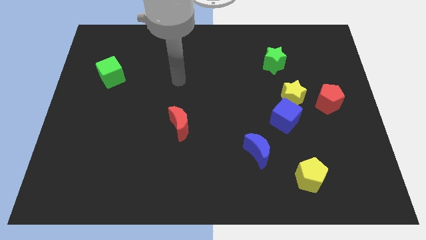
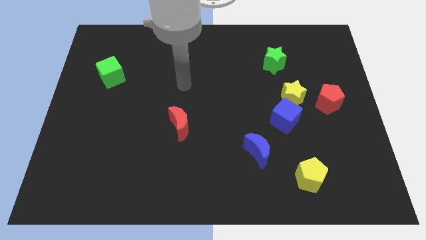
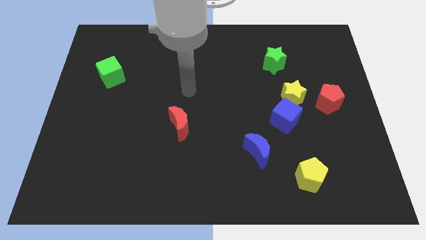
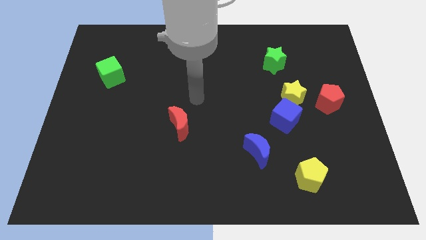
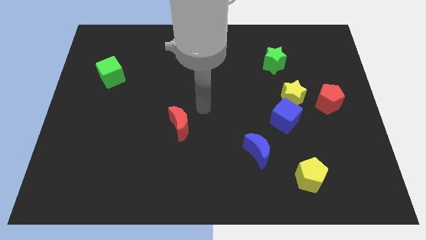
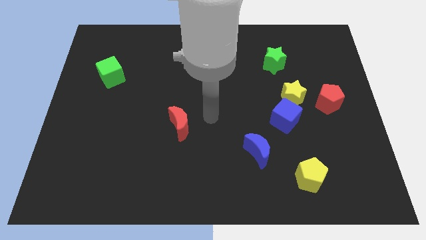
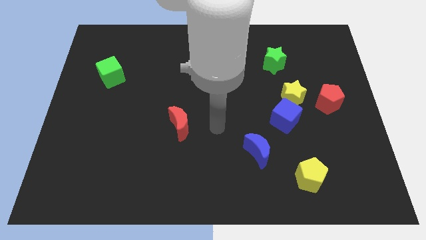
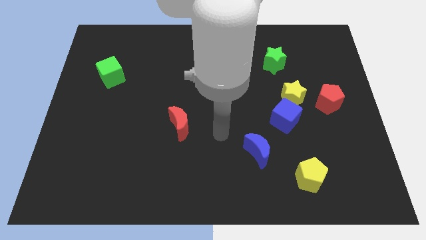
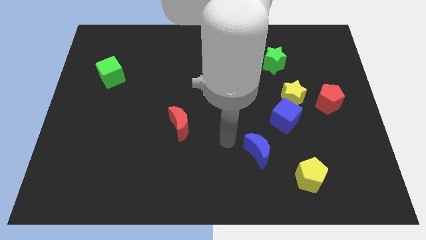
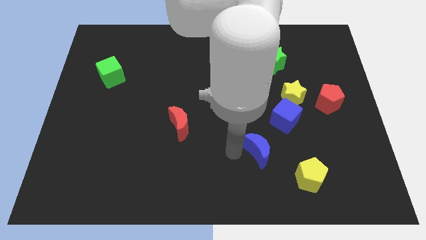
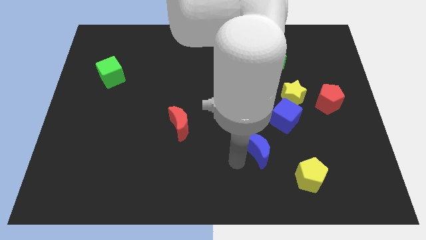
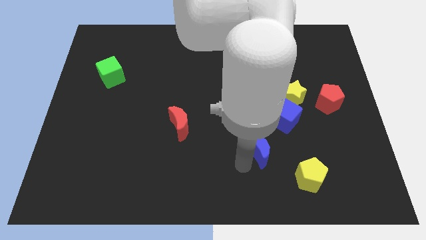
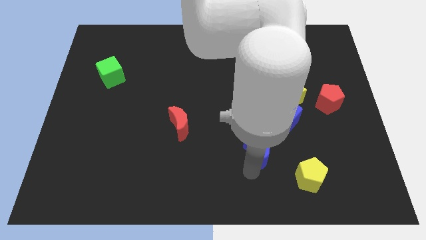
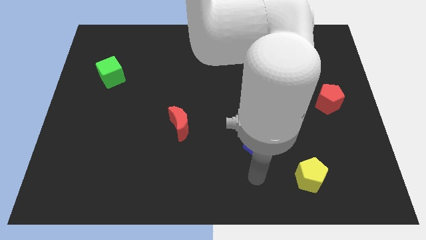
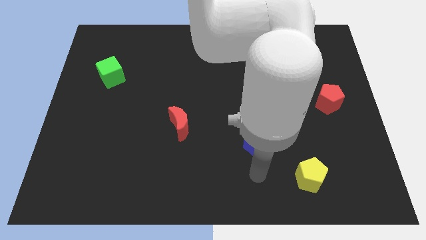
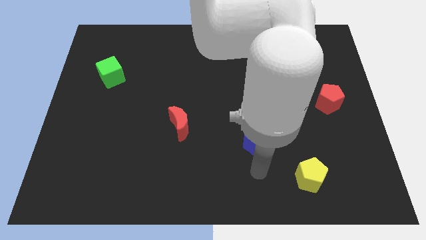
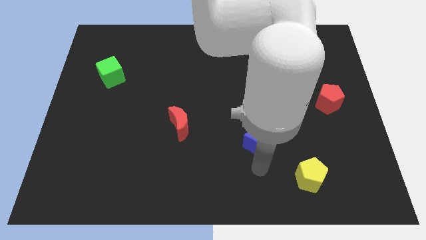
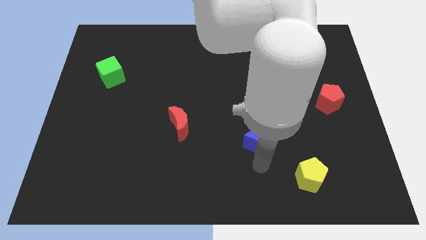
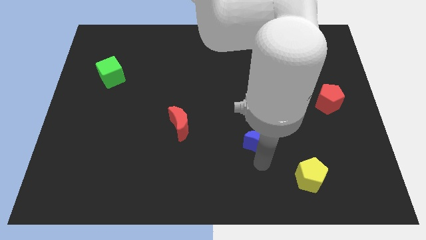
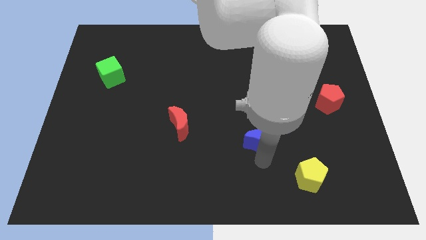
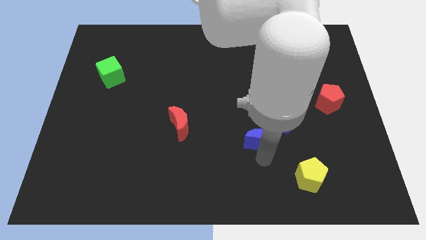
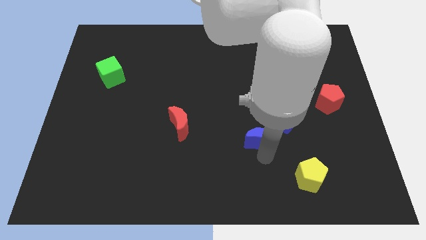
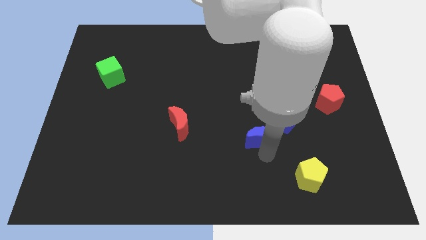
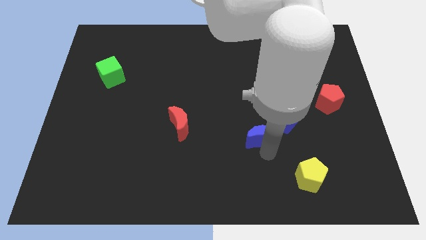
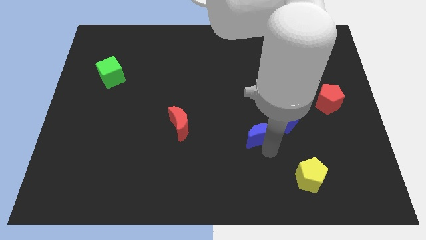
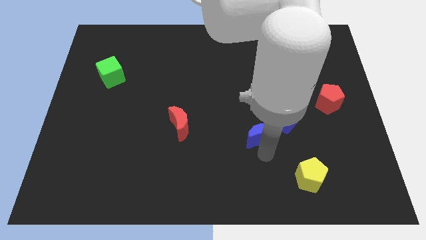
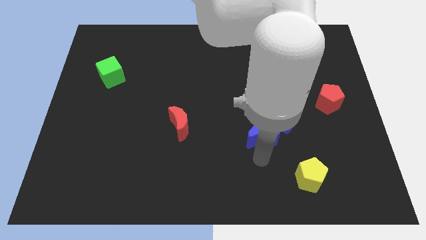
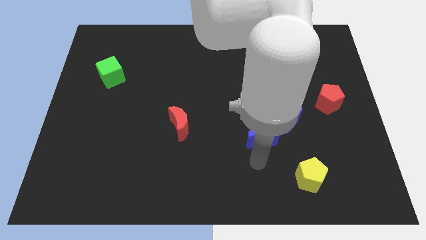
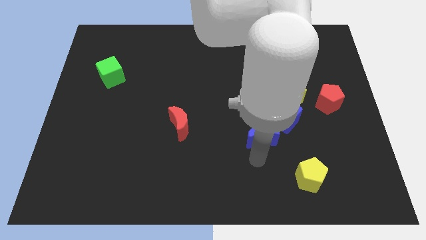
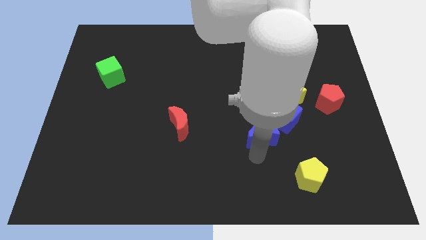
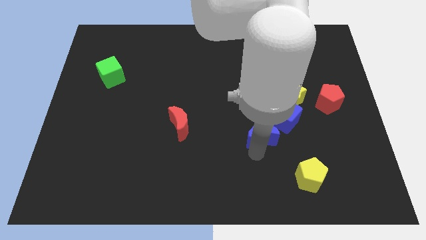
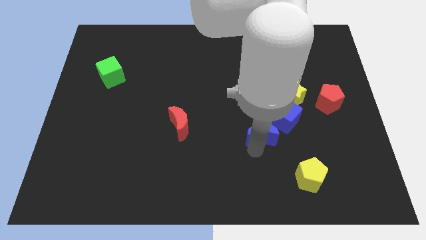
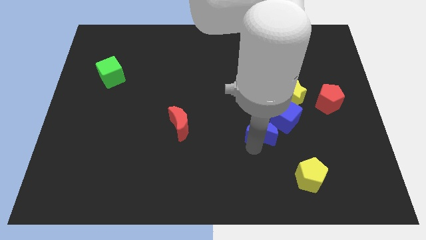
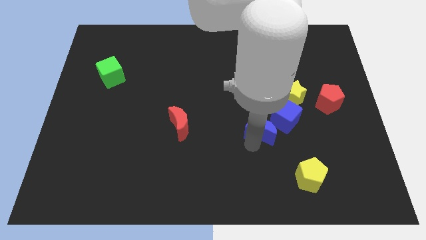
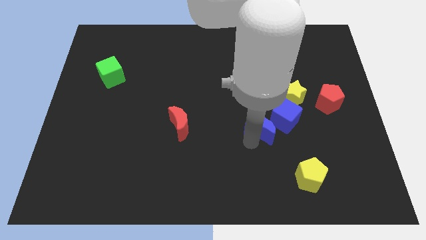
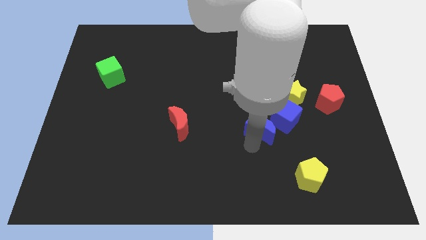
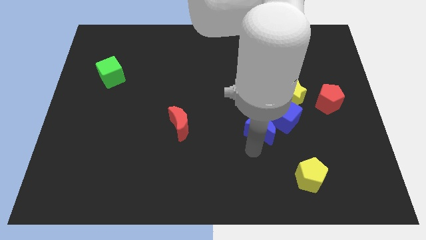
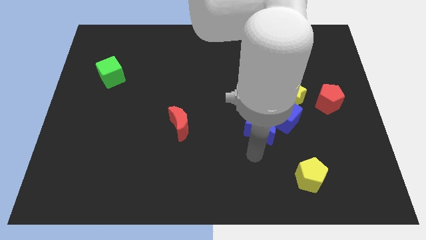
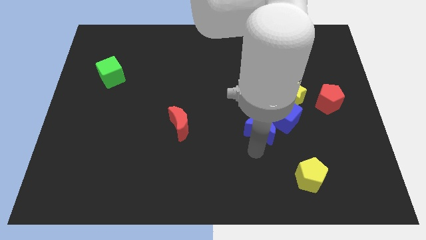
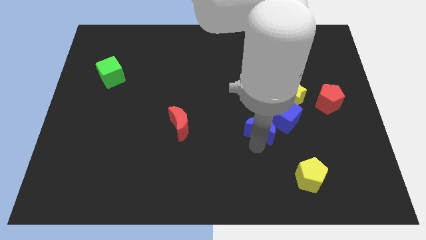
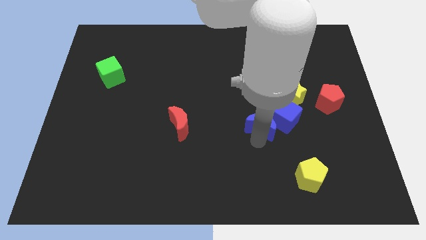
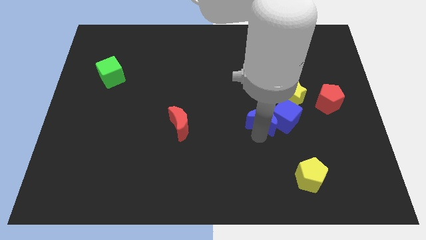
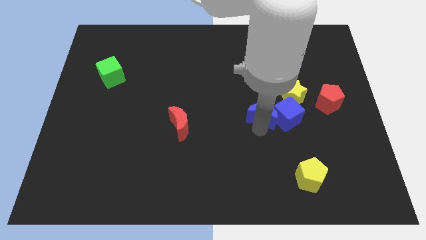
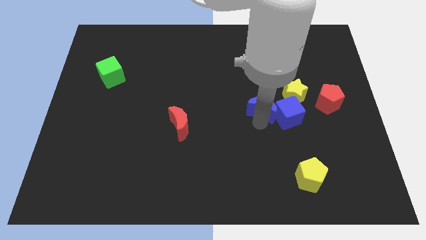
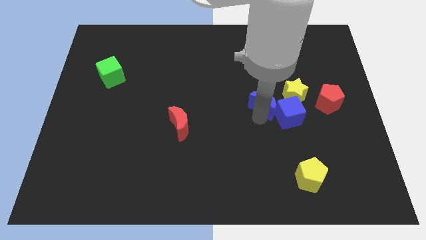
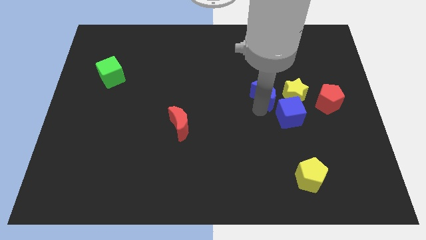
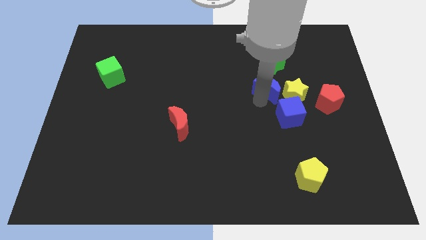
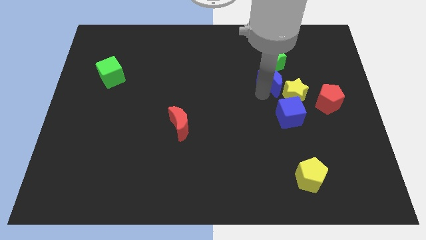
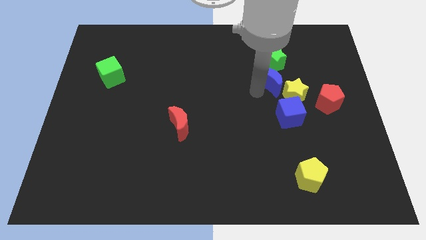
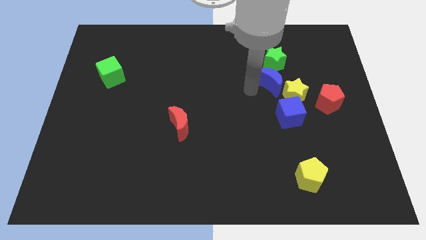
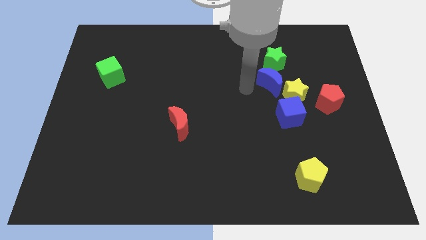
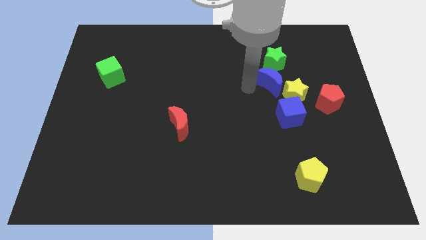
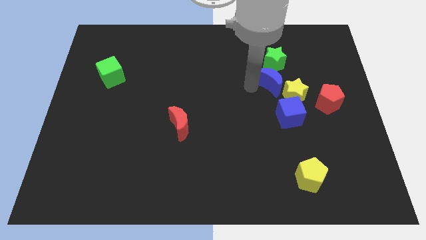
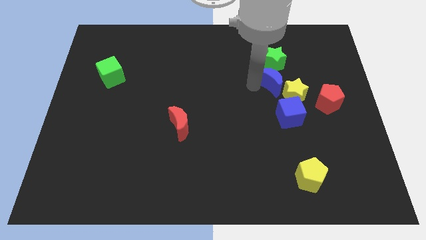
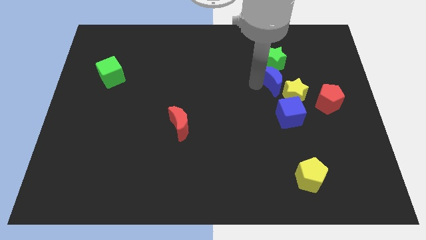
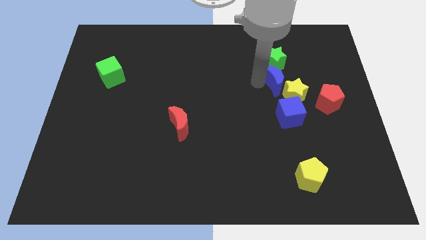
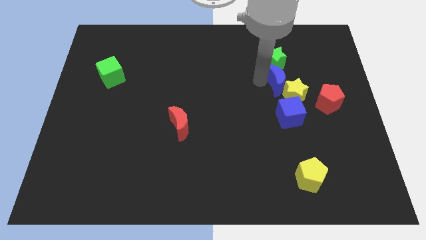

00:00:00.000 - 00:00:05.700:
move the blue moon diagonally down and to the right of the green star

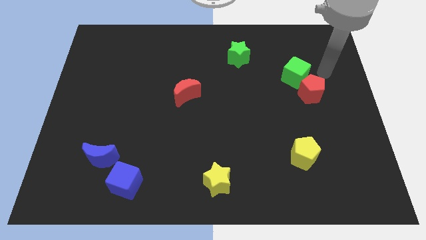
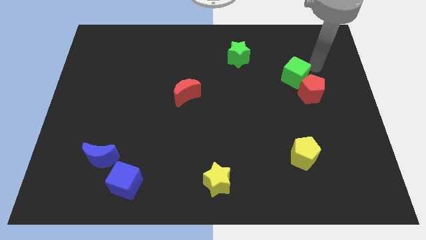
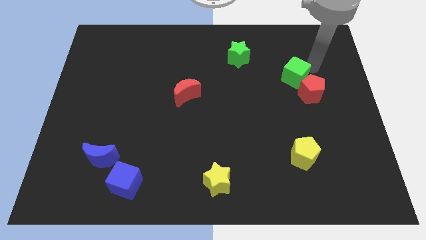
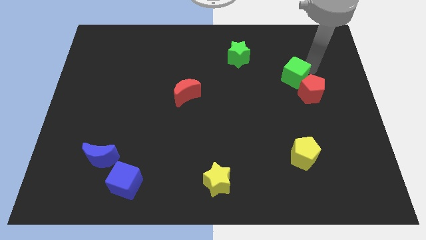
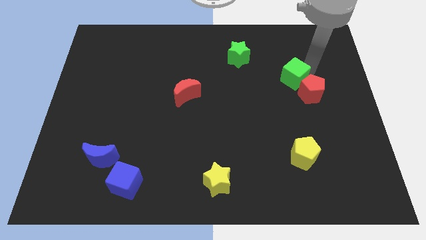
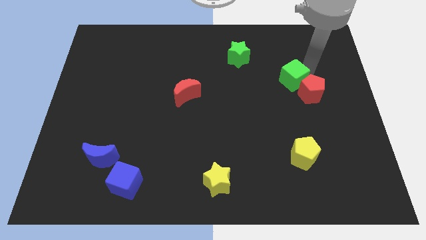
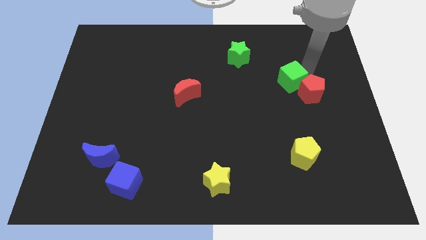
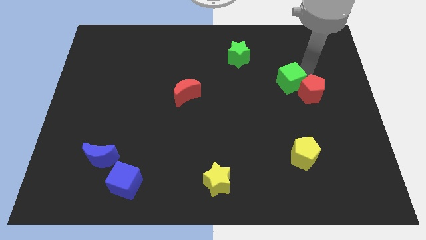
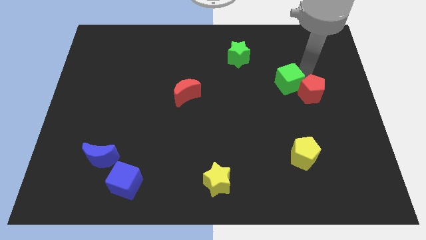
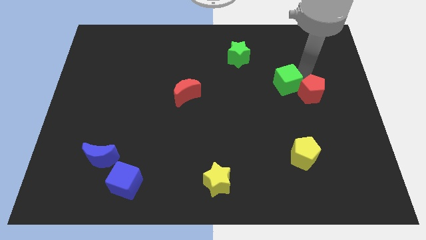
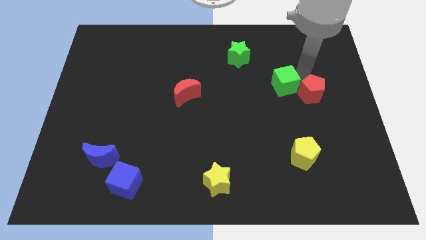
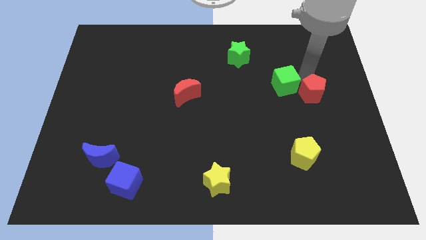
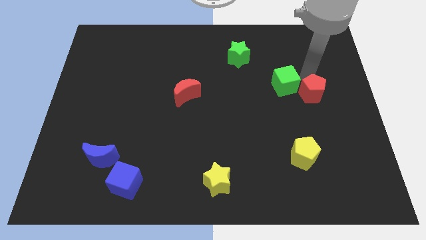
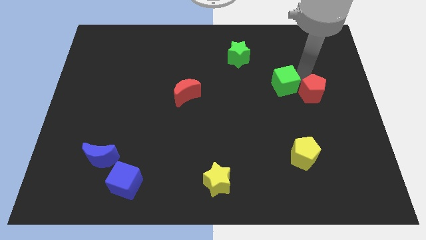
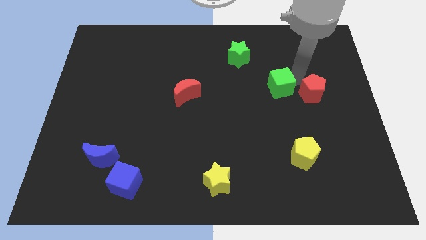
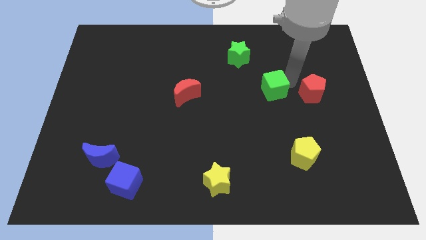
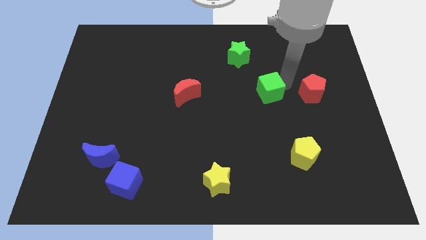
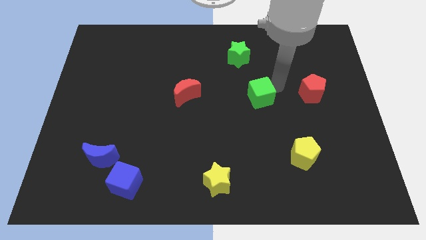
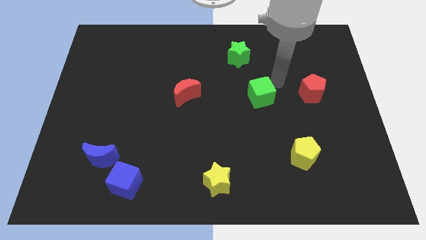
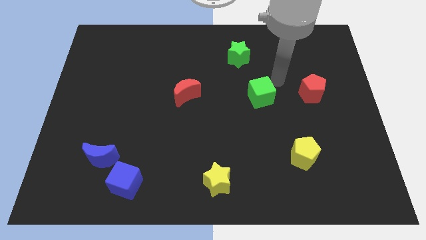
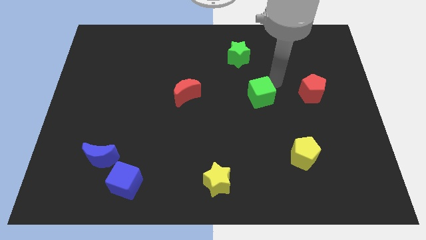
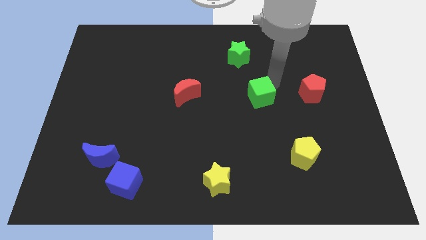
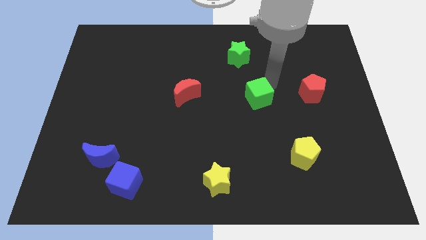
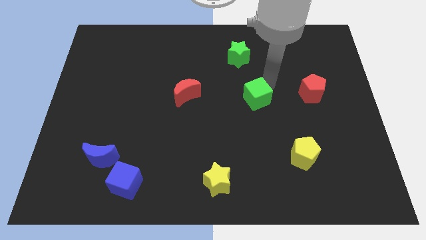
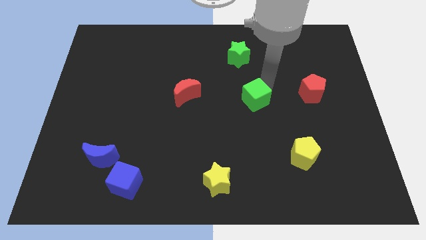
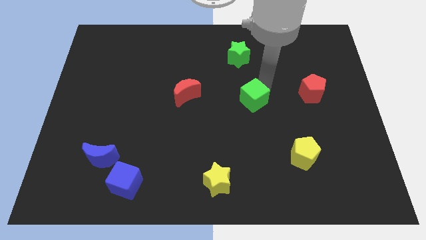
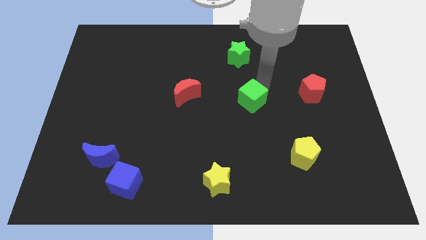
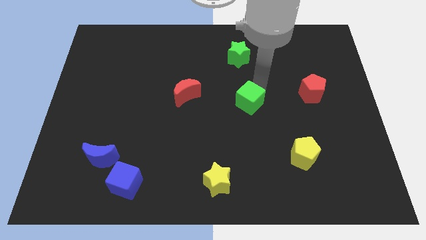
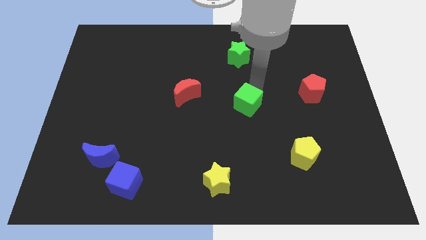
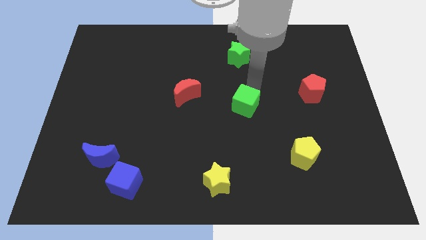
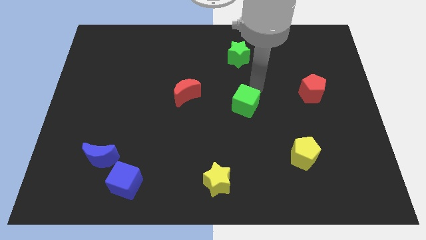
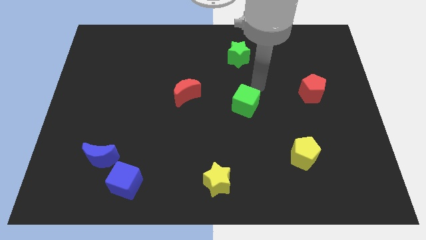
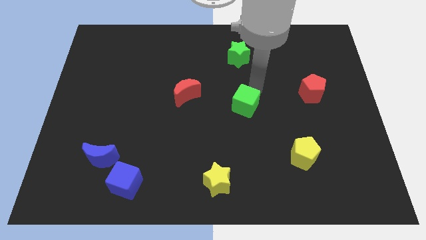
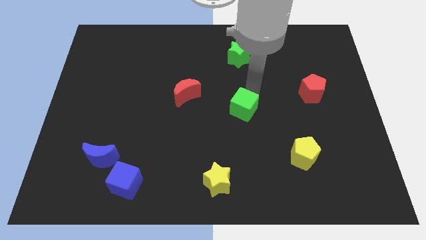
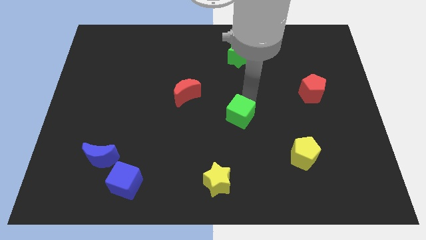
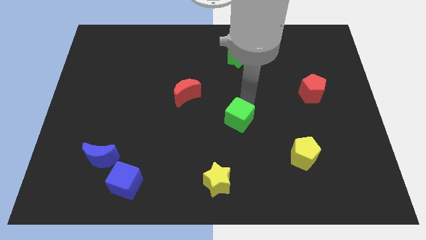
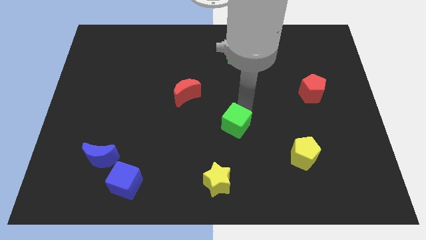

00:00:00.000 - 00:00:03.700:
move the green cube to the top side of the yellow star
